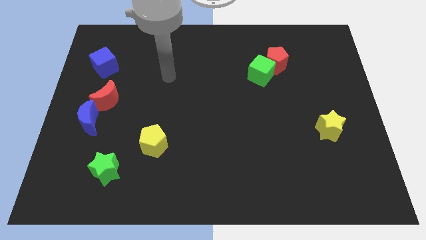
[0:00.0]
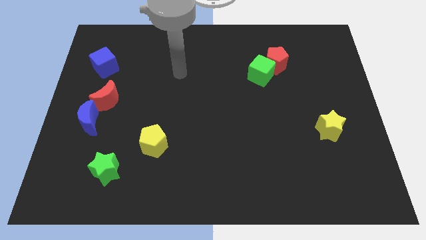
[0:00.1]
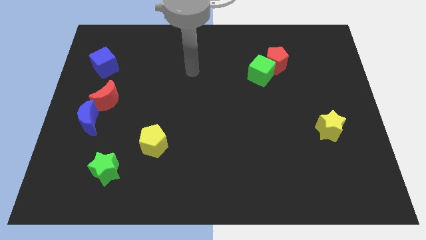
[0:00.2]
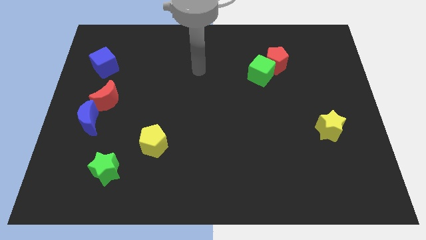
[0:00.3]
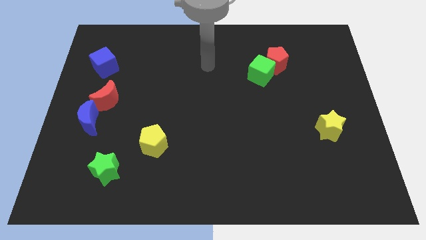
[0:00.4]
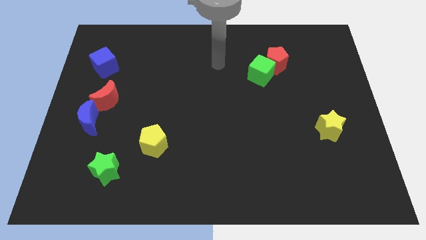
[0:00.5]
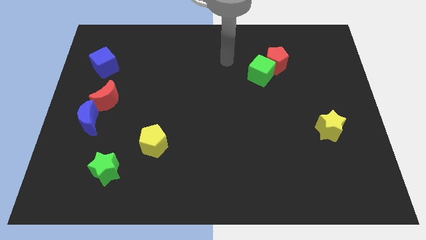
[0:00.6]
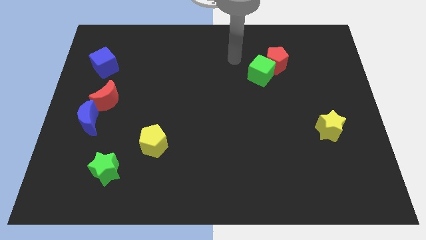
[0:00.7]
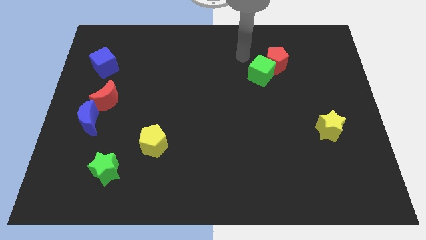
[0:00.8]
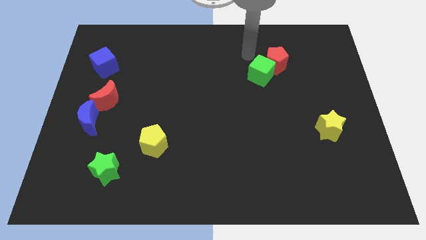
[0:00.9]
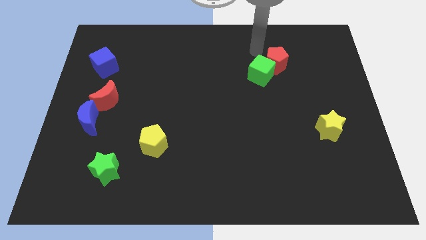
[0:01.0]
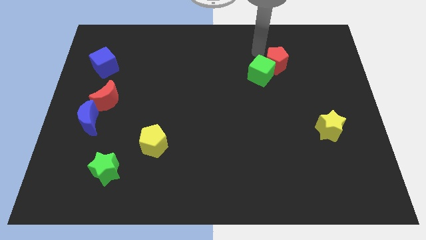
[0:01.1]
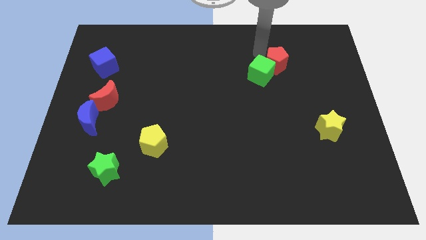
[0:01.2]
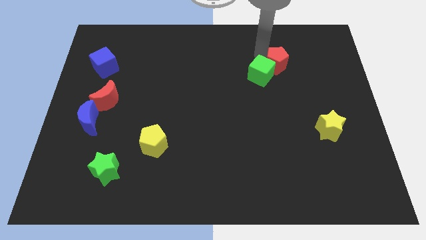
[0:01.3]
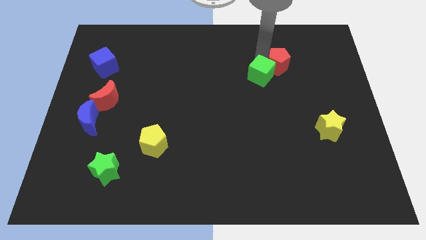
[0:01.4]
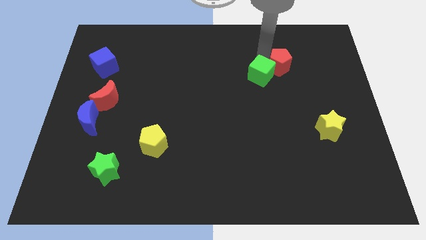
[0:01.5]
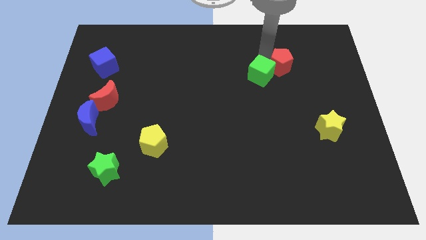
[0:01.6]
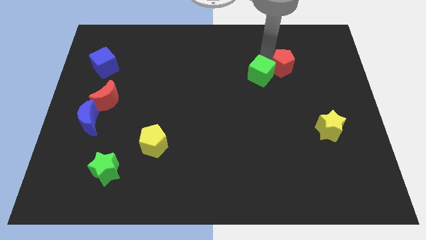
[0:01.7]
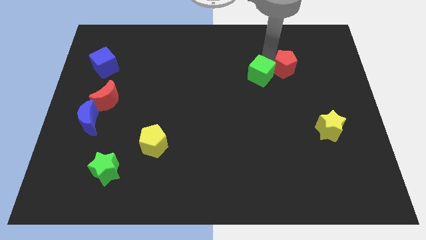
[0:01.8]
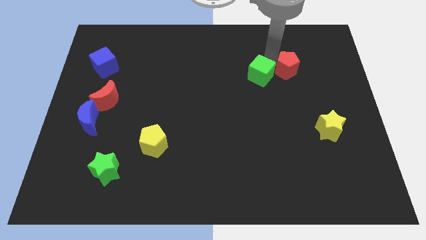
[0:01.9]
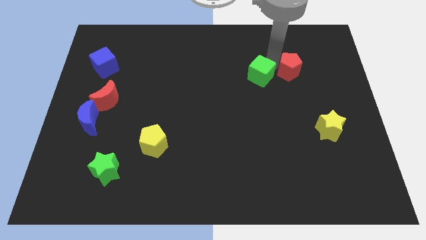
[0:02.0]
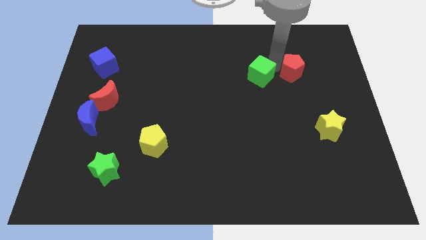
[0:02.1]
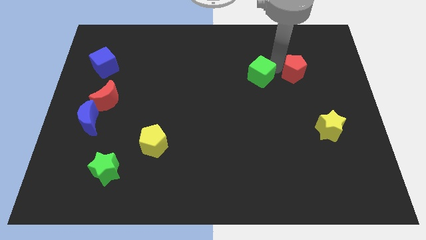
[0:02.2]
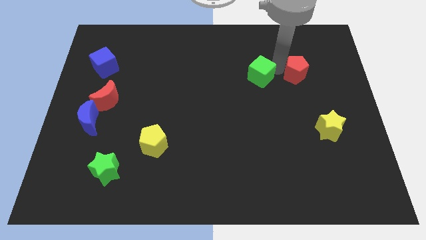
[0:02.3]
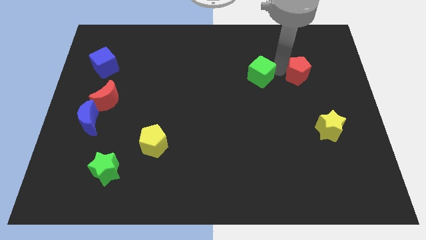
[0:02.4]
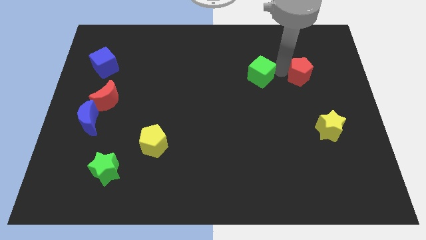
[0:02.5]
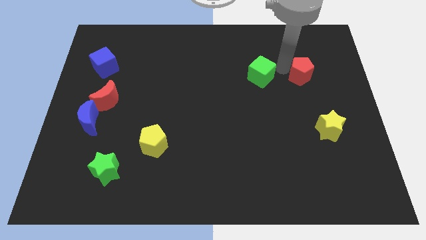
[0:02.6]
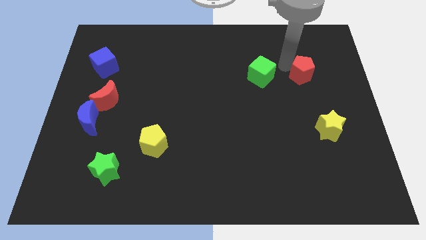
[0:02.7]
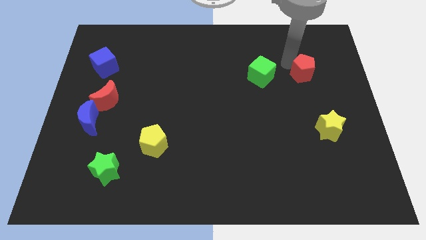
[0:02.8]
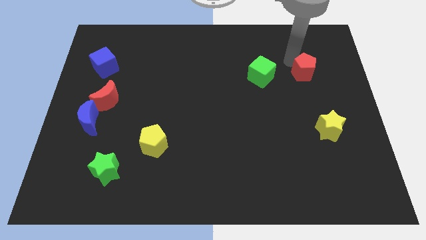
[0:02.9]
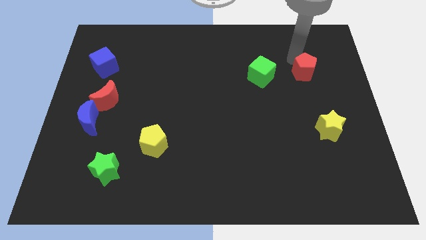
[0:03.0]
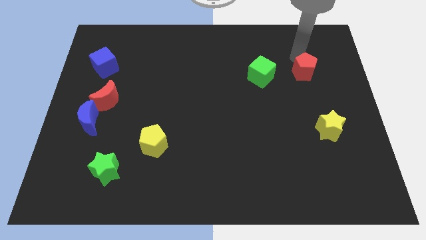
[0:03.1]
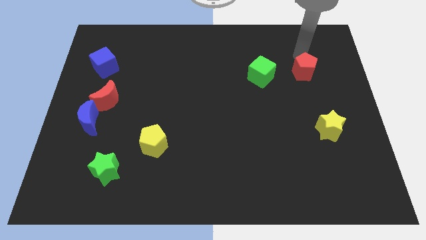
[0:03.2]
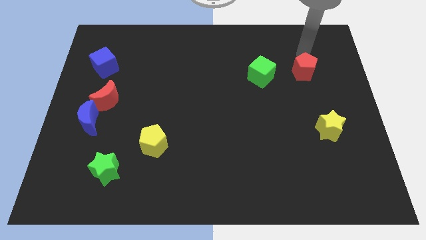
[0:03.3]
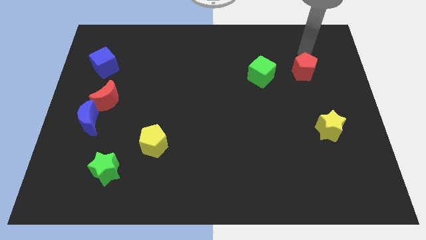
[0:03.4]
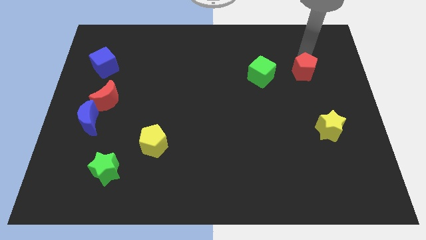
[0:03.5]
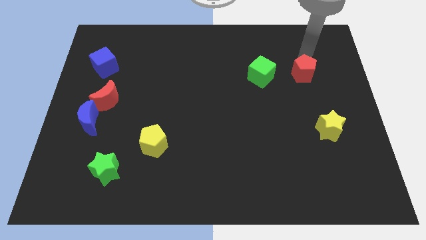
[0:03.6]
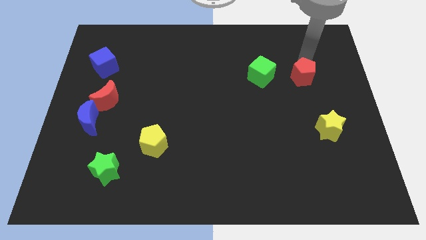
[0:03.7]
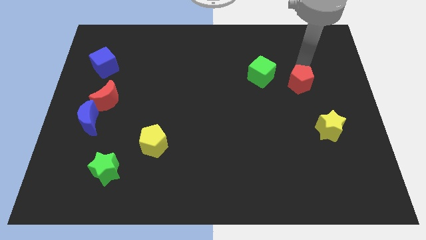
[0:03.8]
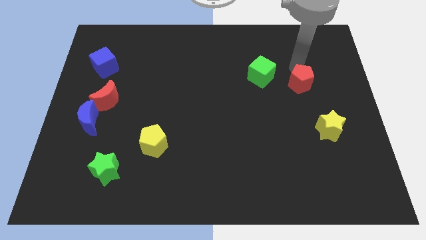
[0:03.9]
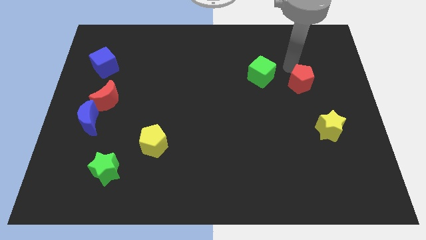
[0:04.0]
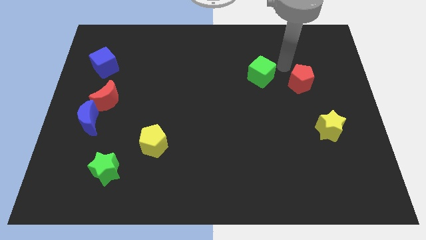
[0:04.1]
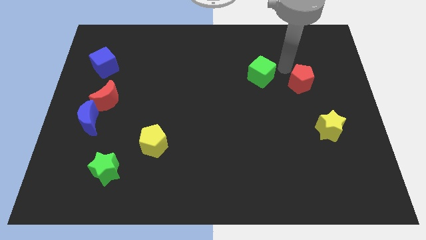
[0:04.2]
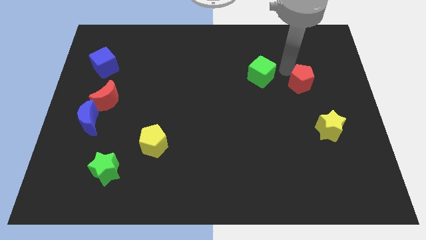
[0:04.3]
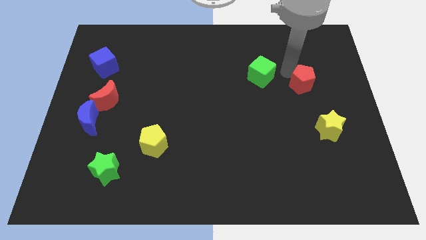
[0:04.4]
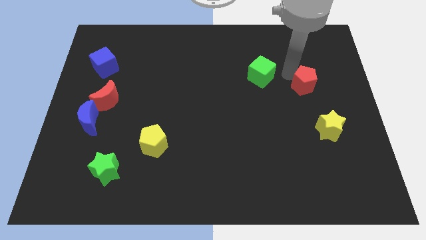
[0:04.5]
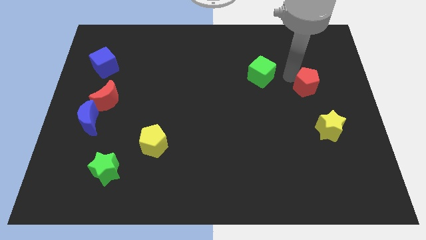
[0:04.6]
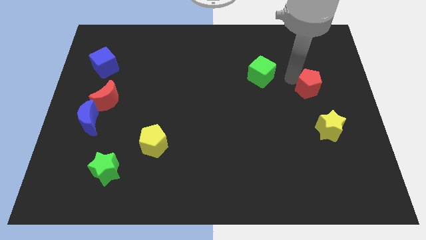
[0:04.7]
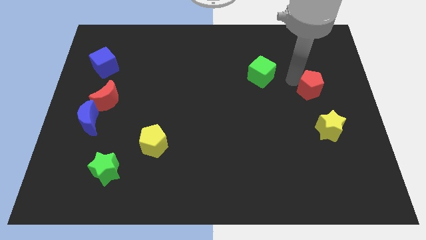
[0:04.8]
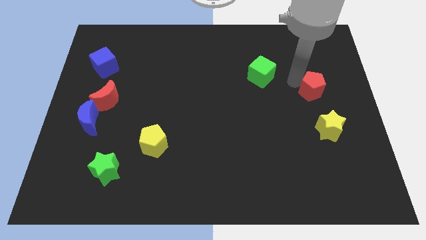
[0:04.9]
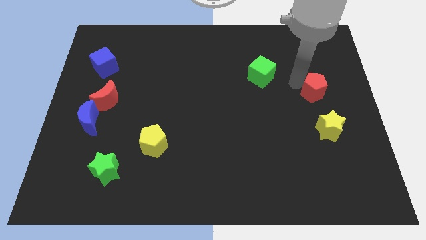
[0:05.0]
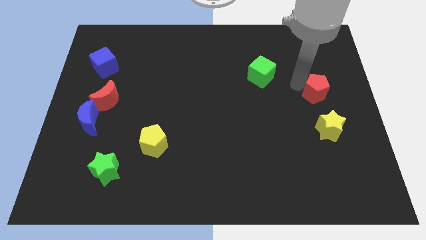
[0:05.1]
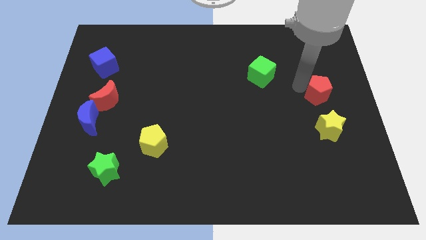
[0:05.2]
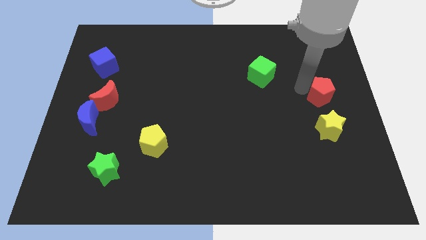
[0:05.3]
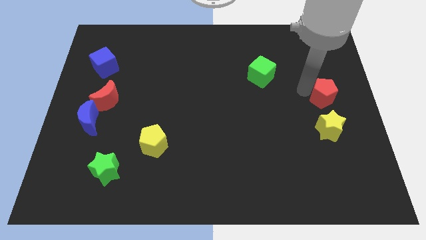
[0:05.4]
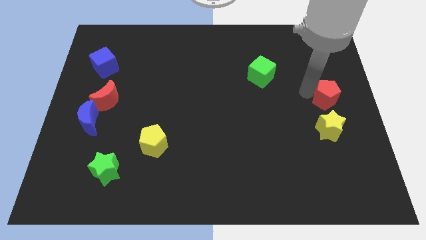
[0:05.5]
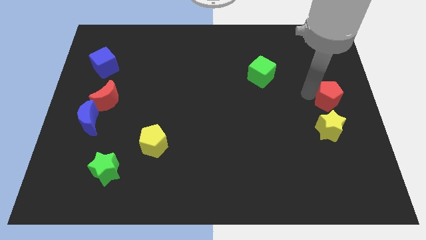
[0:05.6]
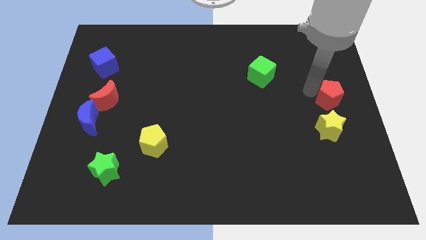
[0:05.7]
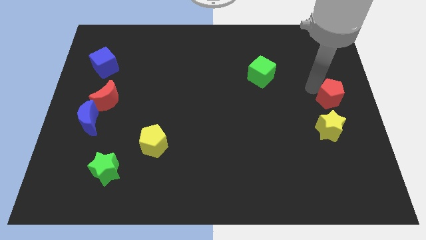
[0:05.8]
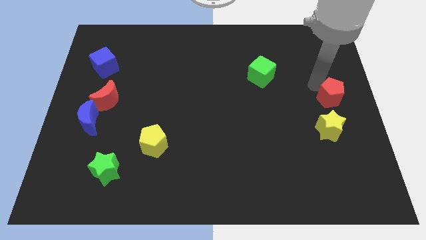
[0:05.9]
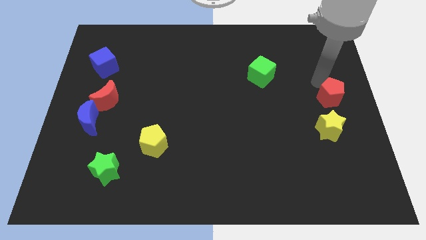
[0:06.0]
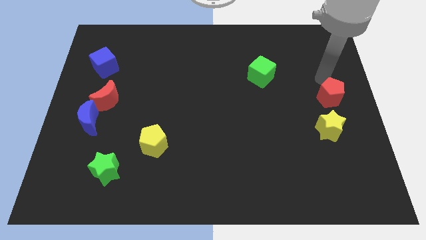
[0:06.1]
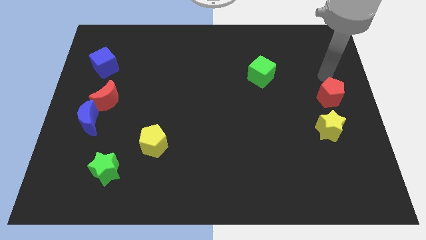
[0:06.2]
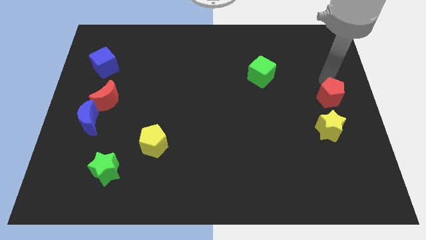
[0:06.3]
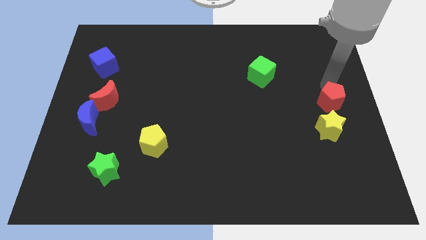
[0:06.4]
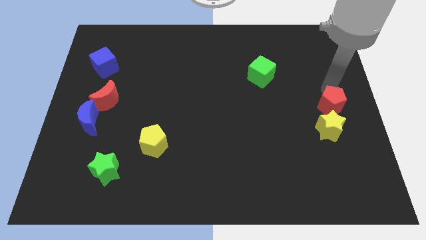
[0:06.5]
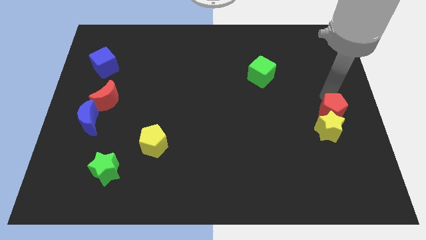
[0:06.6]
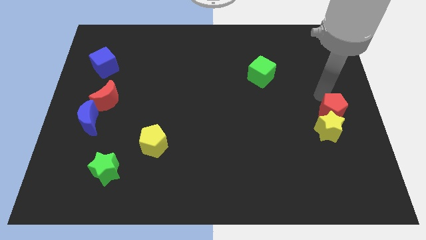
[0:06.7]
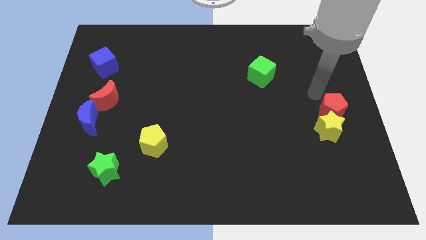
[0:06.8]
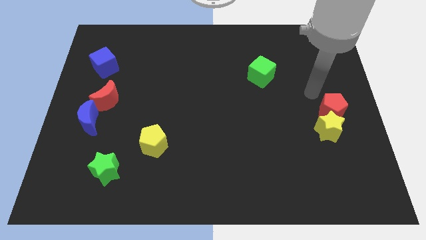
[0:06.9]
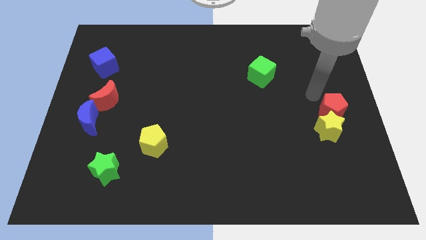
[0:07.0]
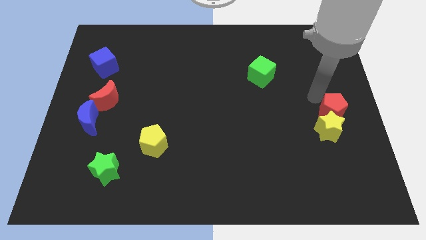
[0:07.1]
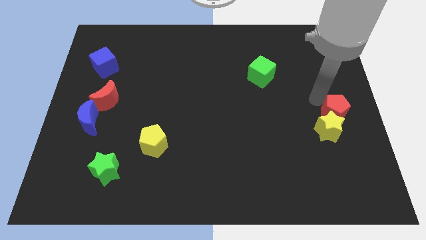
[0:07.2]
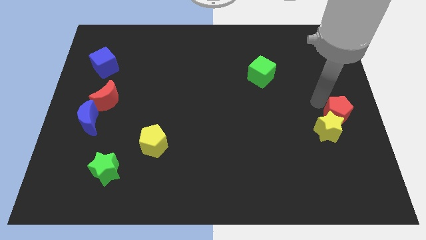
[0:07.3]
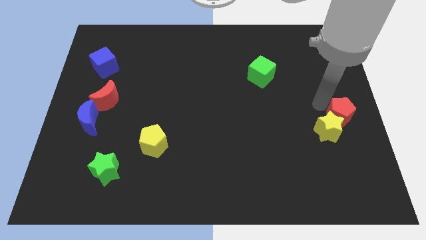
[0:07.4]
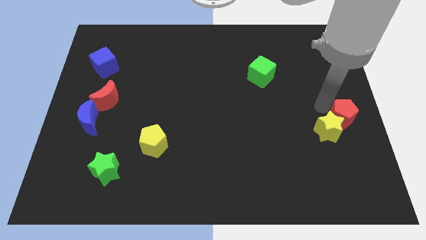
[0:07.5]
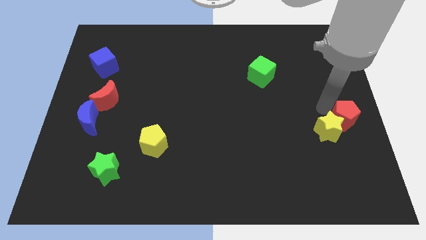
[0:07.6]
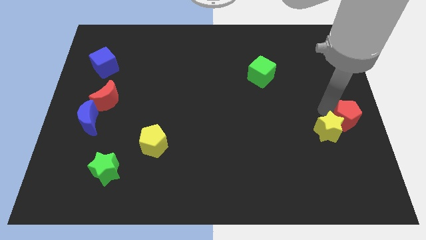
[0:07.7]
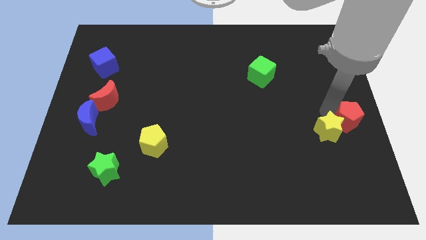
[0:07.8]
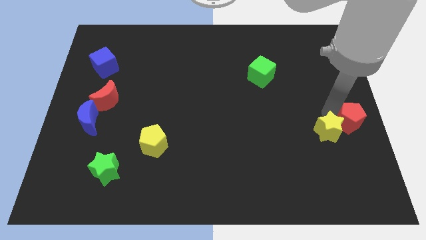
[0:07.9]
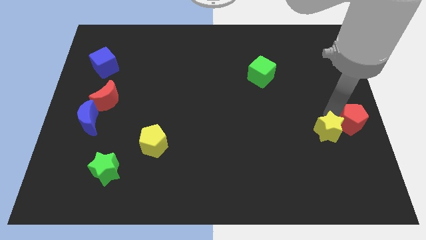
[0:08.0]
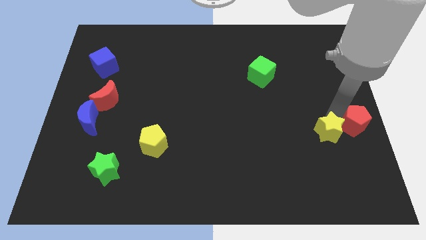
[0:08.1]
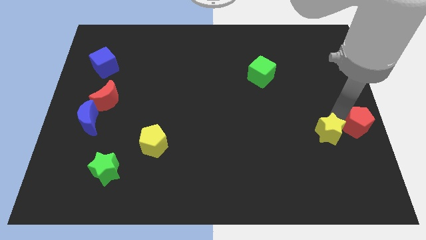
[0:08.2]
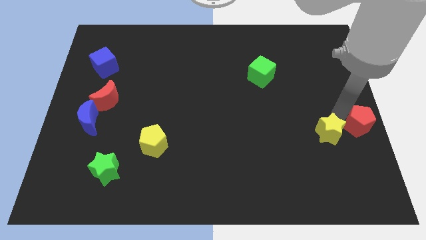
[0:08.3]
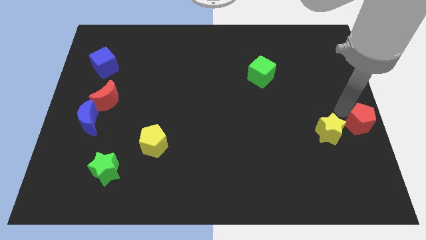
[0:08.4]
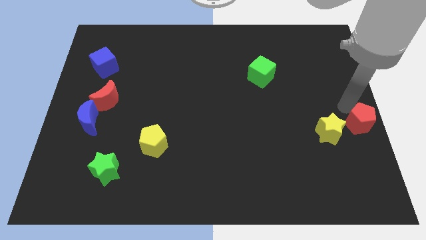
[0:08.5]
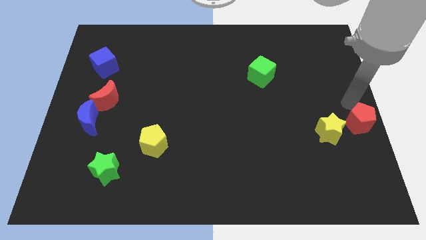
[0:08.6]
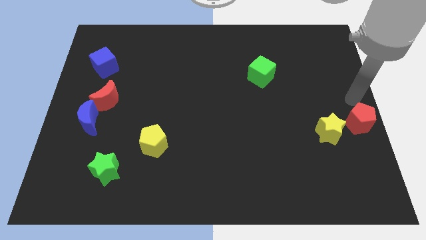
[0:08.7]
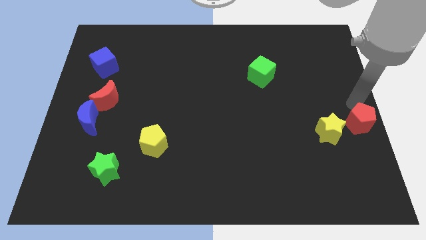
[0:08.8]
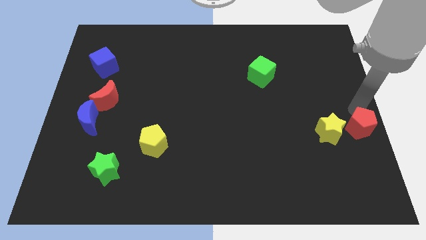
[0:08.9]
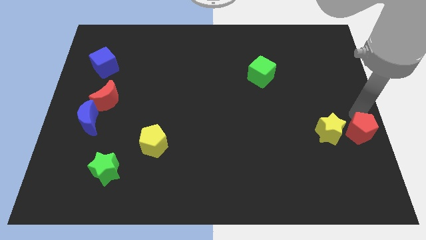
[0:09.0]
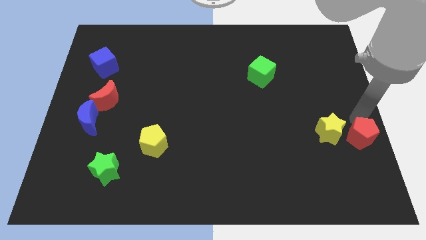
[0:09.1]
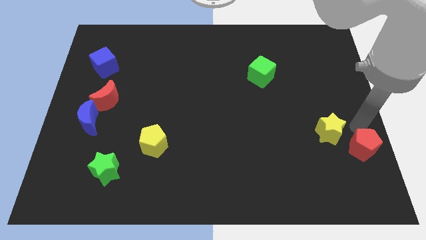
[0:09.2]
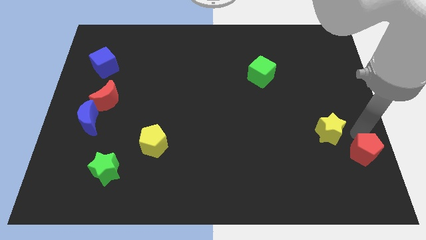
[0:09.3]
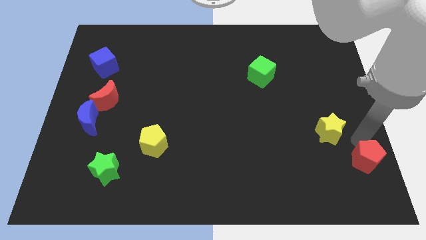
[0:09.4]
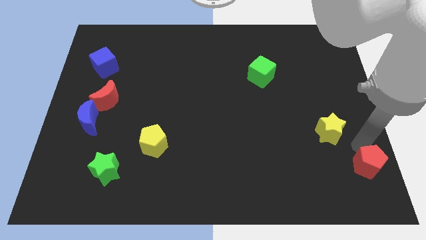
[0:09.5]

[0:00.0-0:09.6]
move the red pentagon to the bottom right
